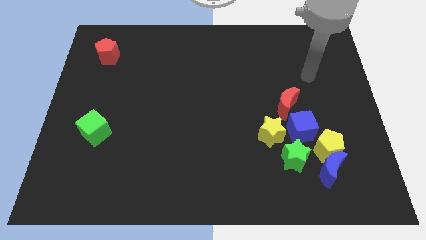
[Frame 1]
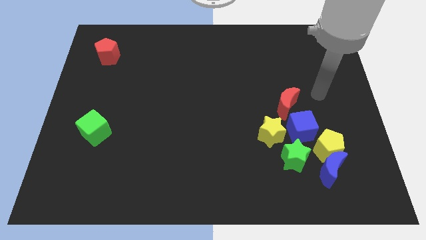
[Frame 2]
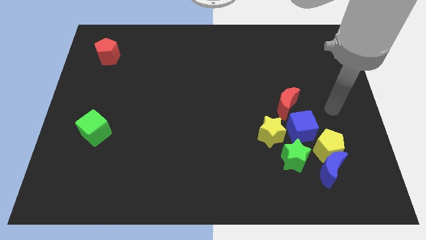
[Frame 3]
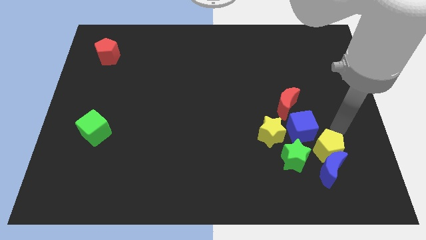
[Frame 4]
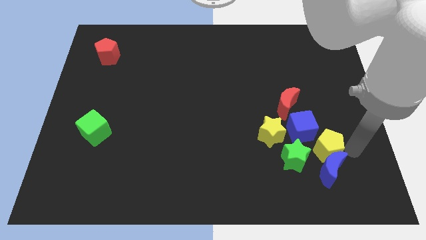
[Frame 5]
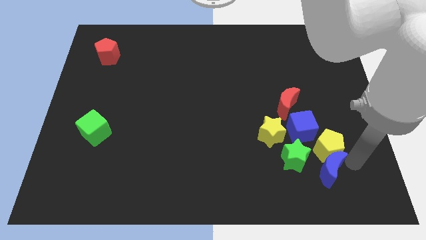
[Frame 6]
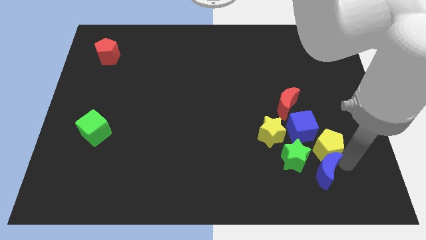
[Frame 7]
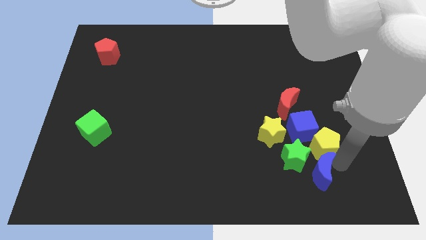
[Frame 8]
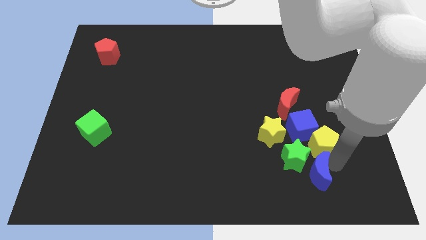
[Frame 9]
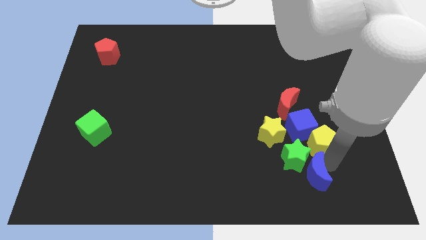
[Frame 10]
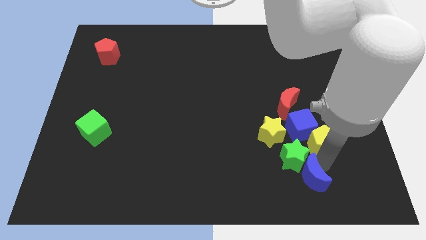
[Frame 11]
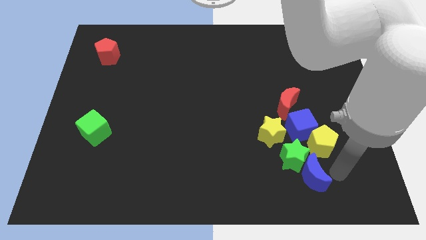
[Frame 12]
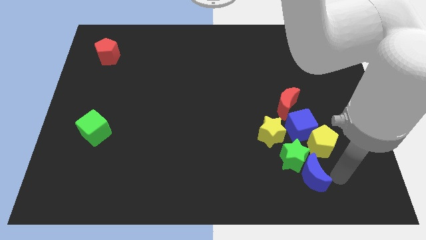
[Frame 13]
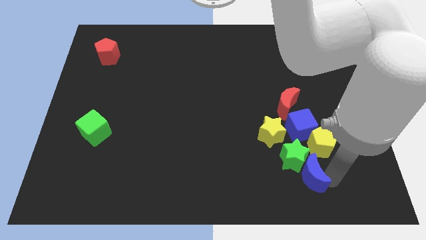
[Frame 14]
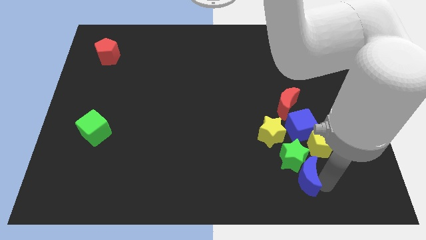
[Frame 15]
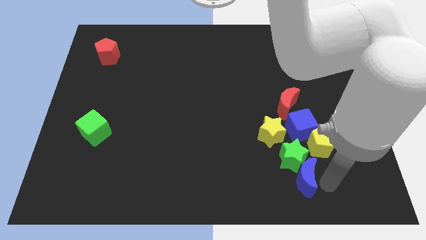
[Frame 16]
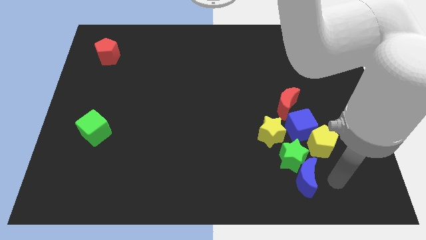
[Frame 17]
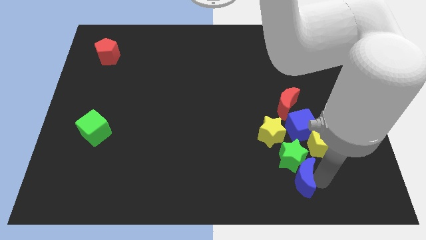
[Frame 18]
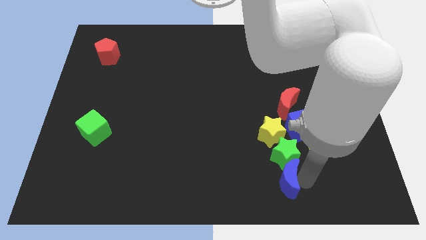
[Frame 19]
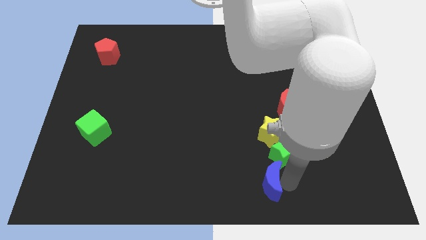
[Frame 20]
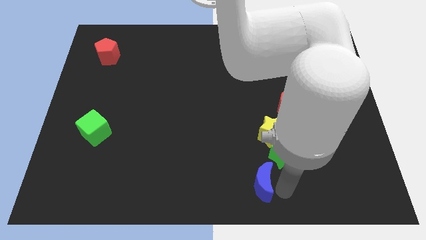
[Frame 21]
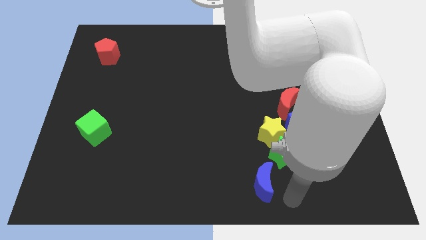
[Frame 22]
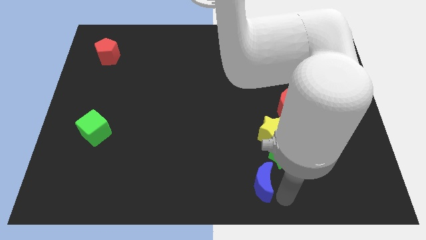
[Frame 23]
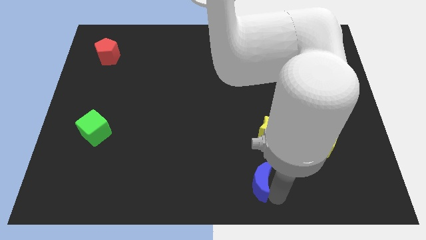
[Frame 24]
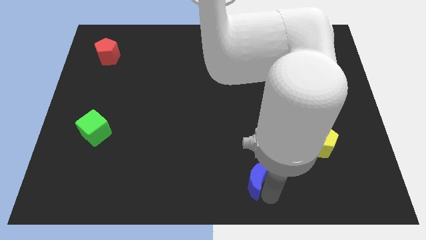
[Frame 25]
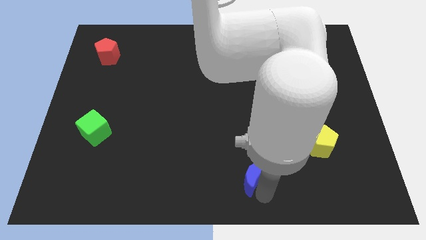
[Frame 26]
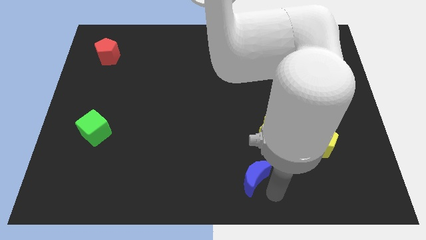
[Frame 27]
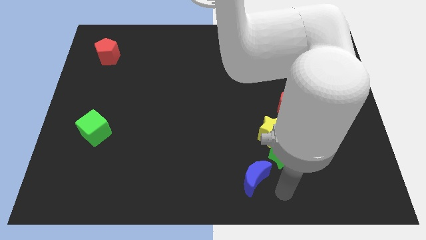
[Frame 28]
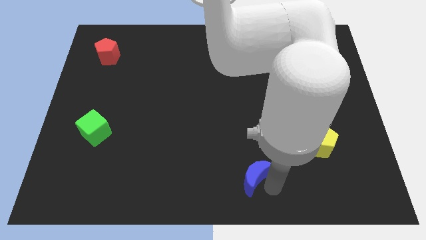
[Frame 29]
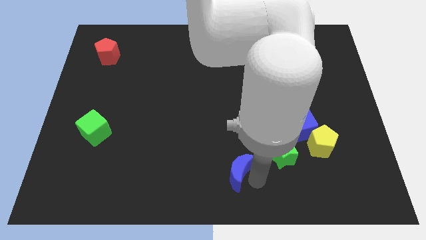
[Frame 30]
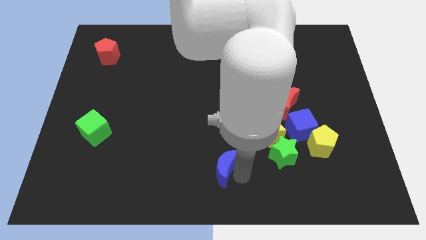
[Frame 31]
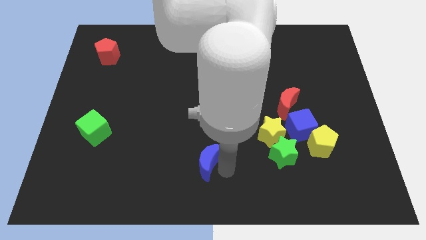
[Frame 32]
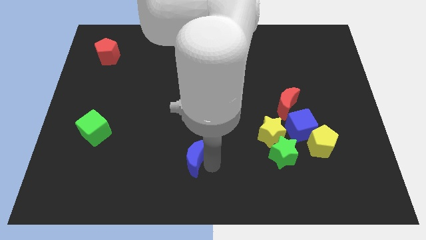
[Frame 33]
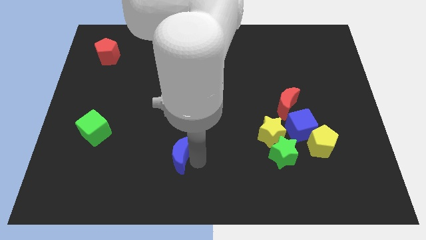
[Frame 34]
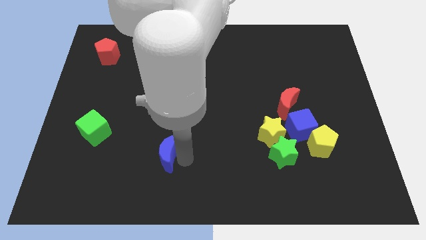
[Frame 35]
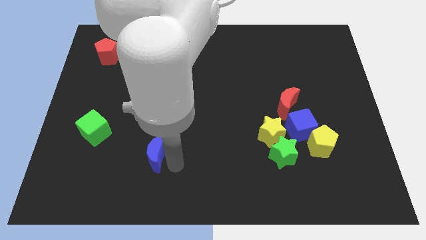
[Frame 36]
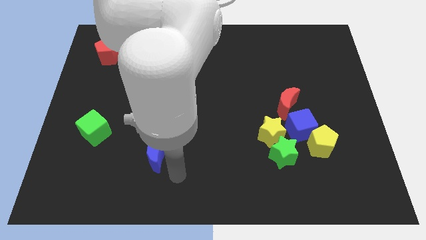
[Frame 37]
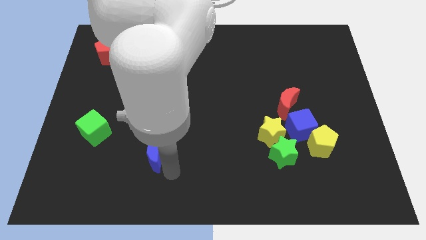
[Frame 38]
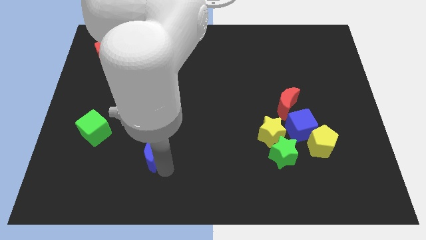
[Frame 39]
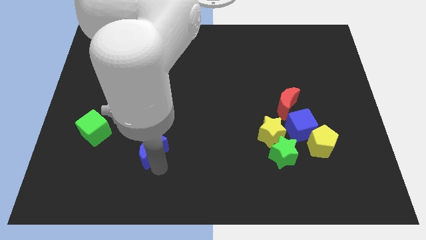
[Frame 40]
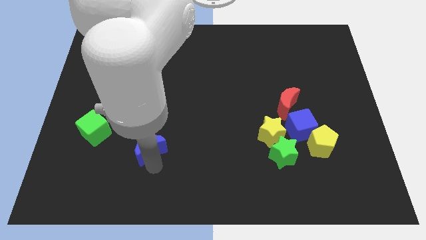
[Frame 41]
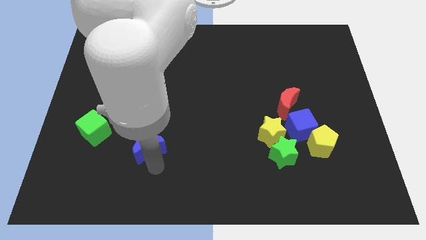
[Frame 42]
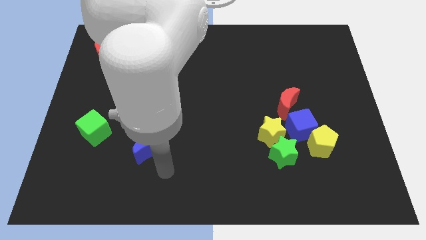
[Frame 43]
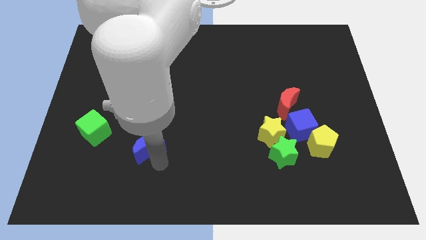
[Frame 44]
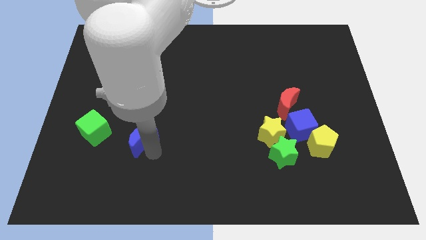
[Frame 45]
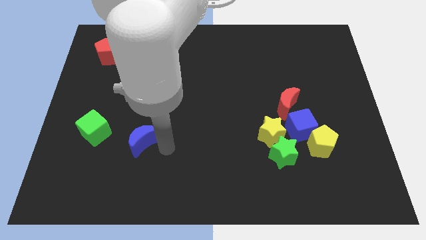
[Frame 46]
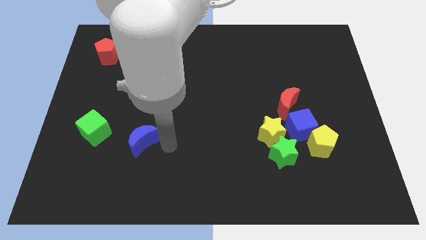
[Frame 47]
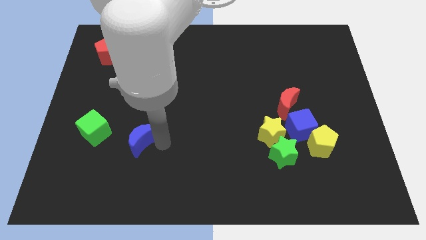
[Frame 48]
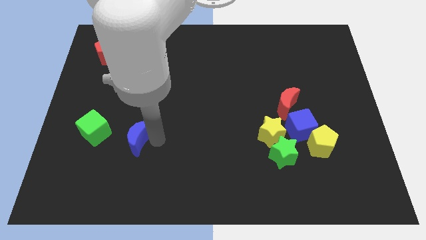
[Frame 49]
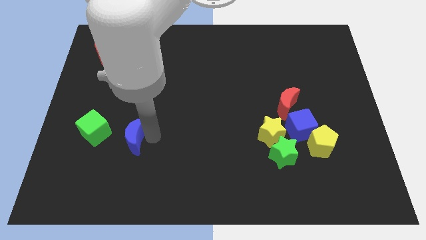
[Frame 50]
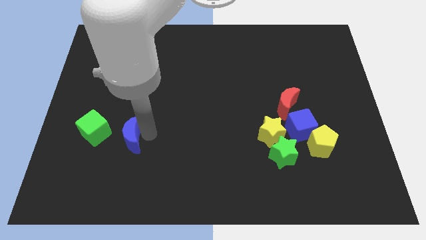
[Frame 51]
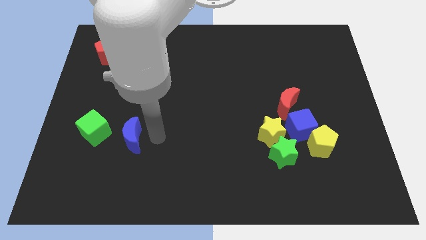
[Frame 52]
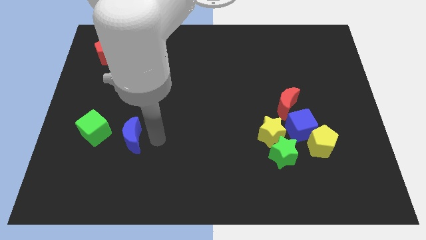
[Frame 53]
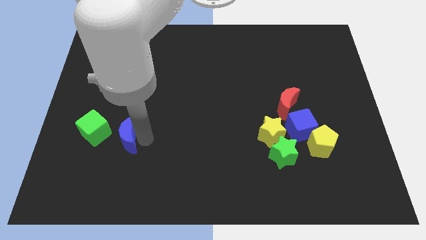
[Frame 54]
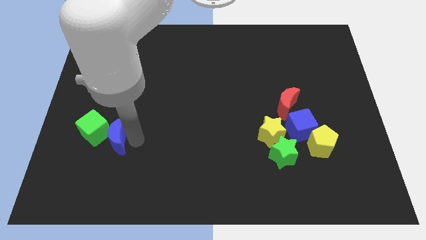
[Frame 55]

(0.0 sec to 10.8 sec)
push the blue moon towards the green cube

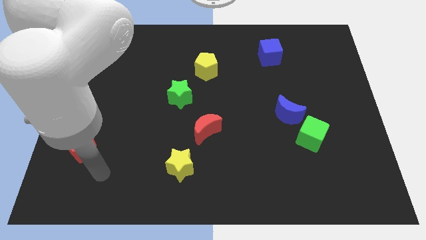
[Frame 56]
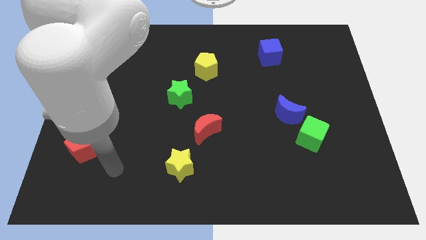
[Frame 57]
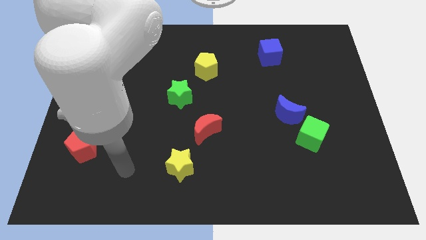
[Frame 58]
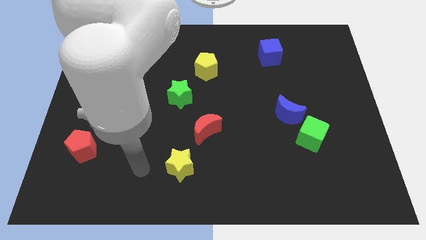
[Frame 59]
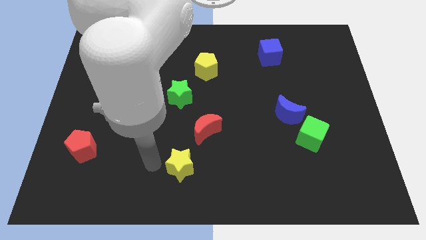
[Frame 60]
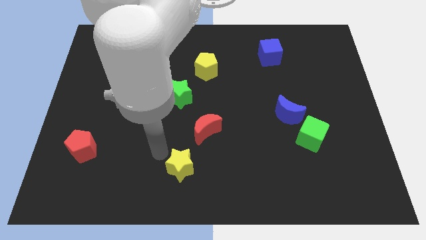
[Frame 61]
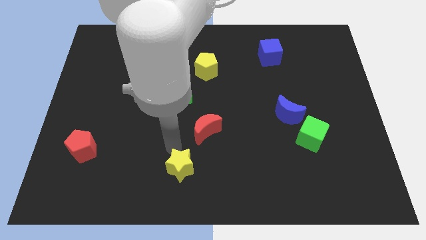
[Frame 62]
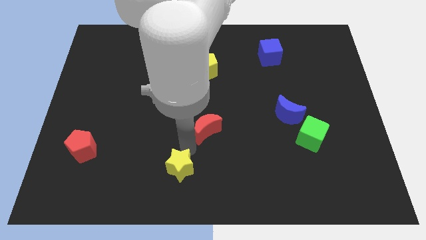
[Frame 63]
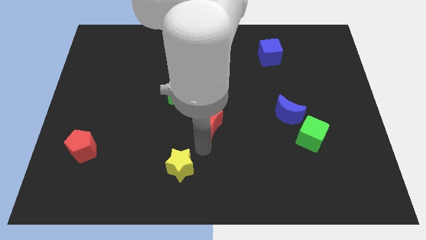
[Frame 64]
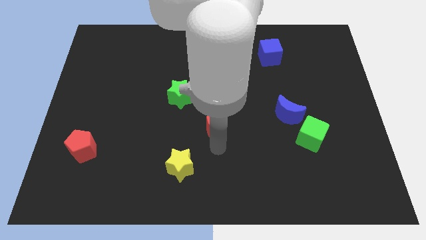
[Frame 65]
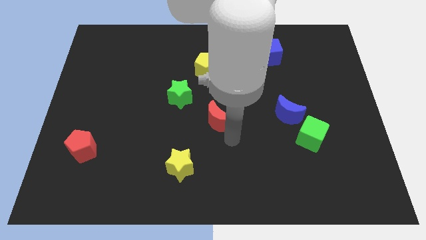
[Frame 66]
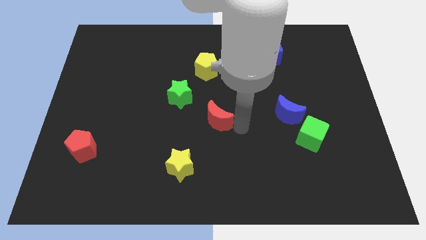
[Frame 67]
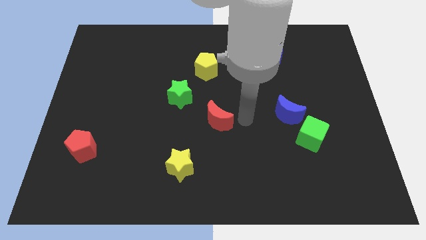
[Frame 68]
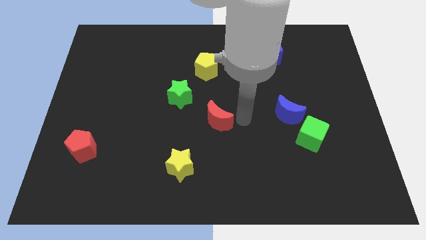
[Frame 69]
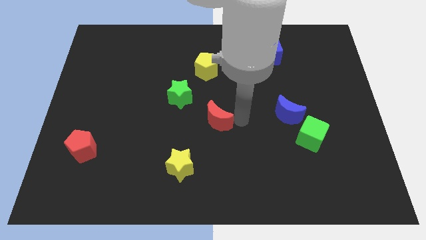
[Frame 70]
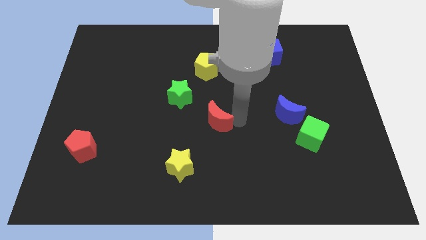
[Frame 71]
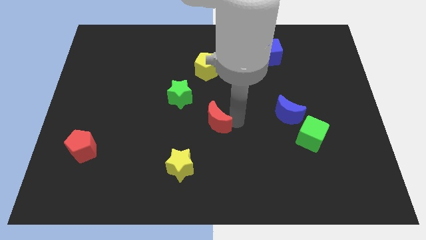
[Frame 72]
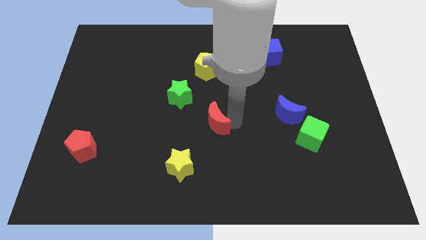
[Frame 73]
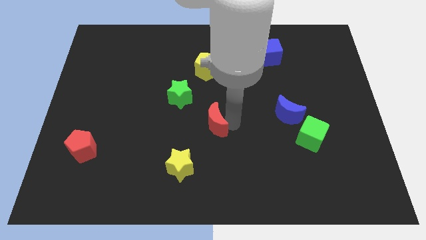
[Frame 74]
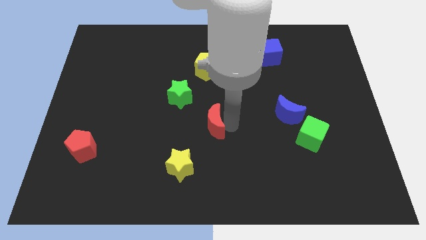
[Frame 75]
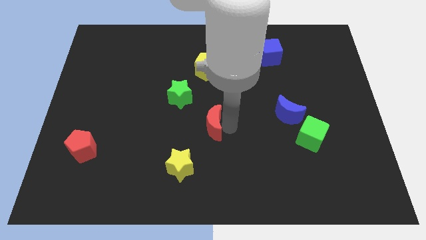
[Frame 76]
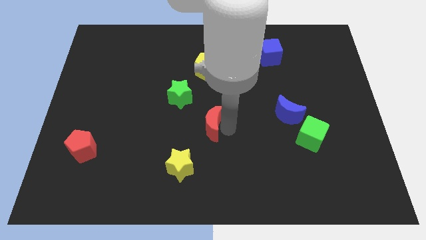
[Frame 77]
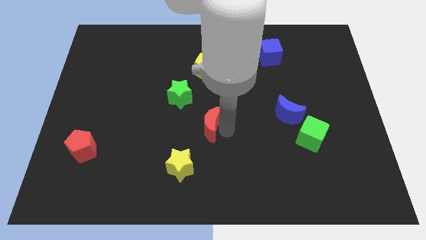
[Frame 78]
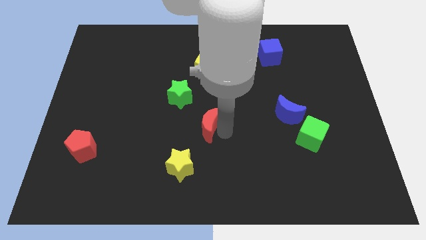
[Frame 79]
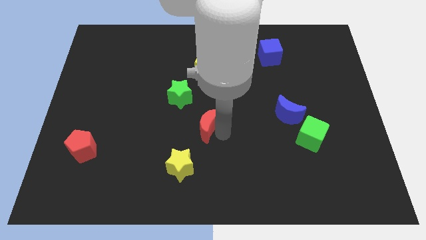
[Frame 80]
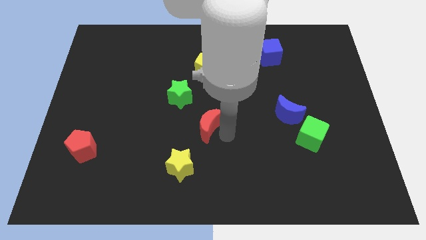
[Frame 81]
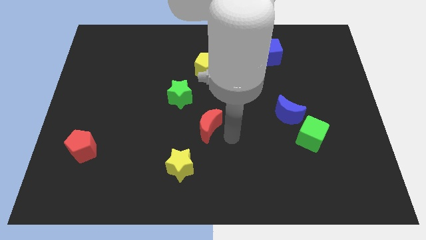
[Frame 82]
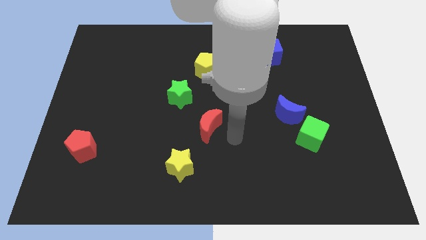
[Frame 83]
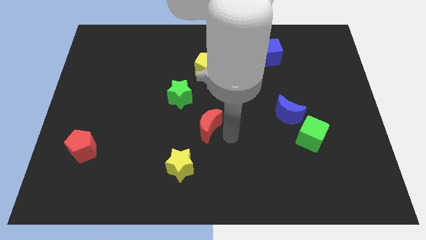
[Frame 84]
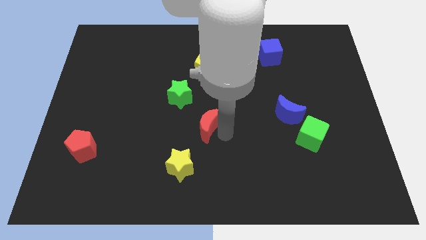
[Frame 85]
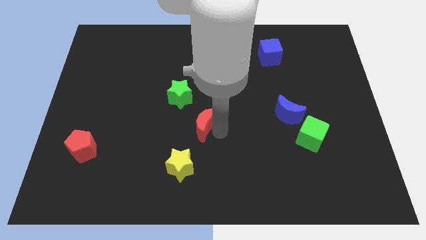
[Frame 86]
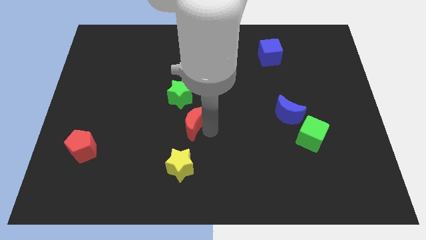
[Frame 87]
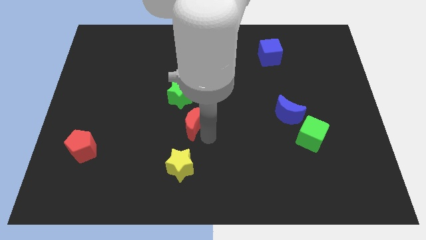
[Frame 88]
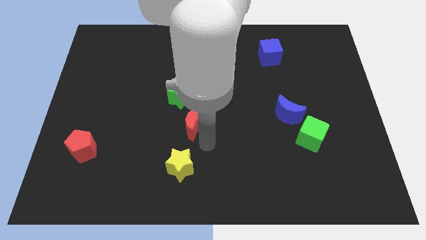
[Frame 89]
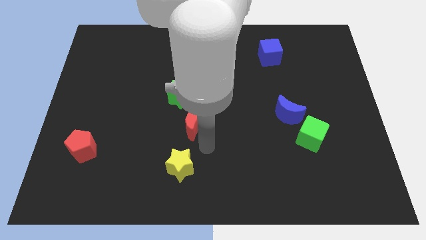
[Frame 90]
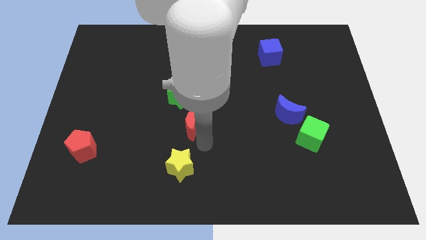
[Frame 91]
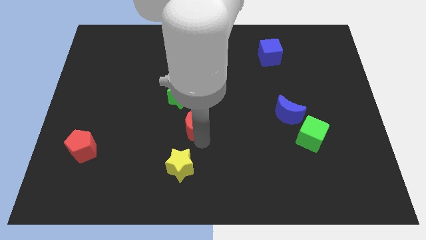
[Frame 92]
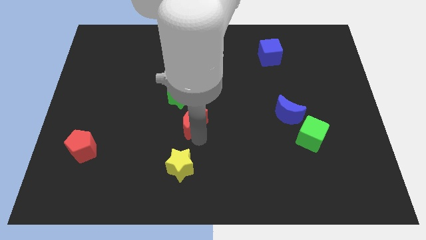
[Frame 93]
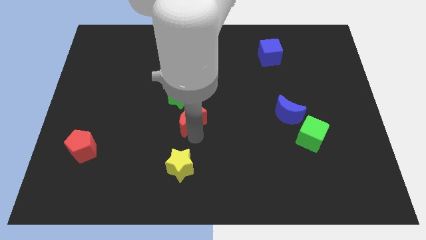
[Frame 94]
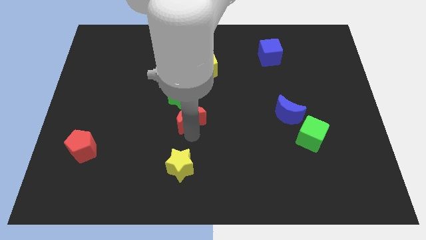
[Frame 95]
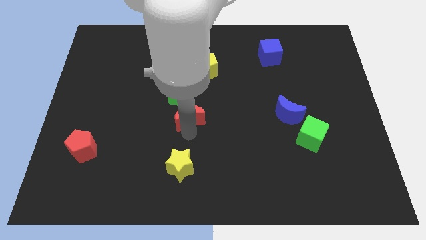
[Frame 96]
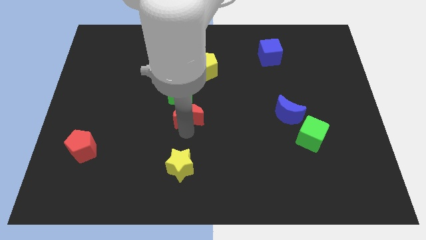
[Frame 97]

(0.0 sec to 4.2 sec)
slide the red moon close to the green star
